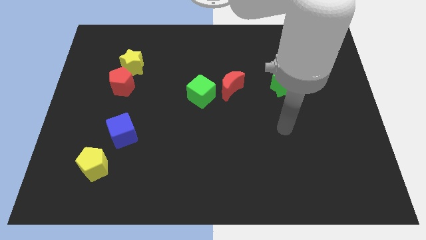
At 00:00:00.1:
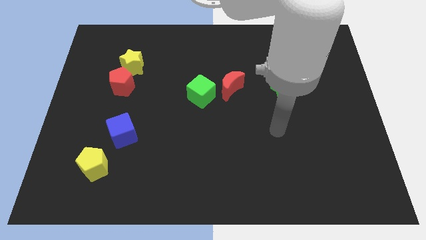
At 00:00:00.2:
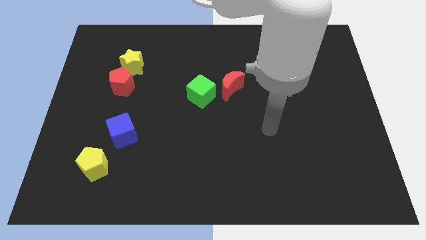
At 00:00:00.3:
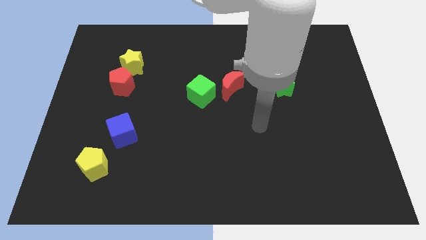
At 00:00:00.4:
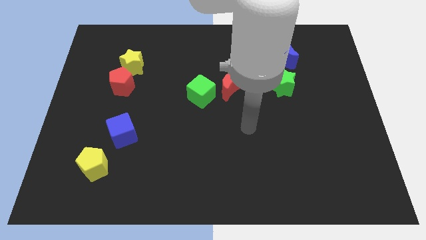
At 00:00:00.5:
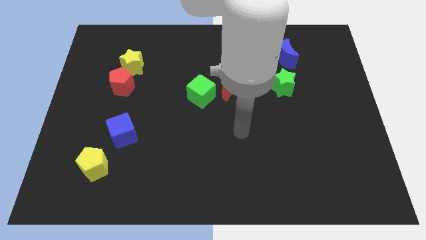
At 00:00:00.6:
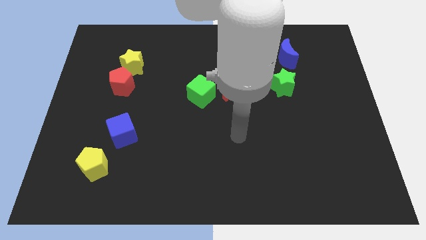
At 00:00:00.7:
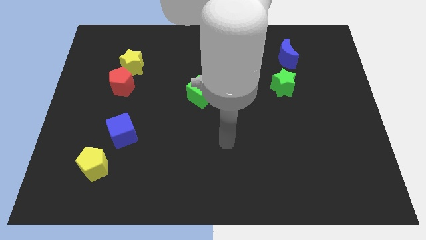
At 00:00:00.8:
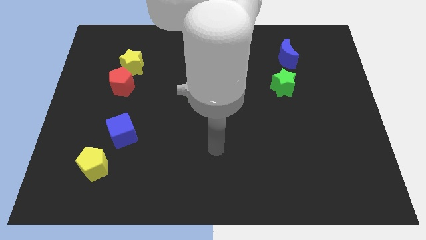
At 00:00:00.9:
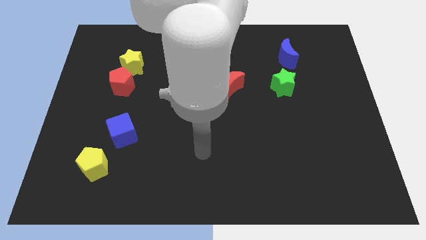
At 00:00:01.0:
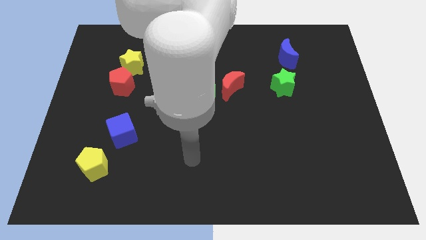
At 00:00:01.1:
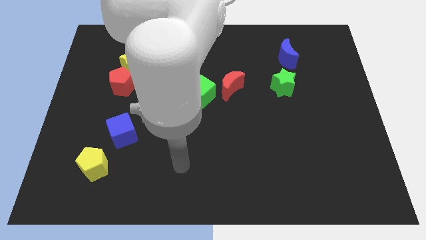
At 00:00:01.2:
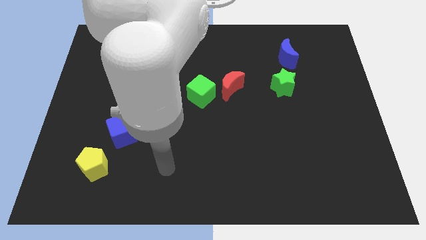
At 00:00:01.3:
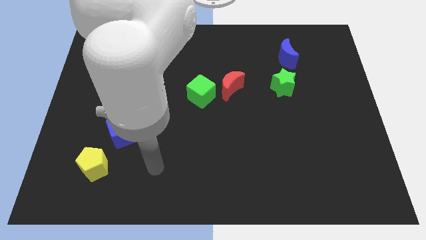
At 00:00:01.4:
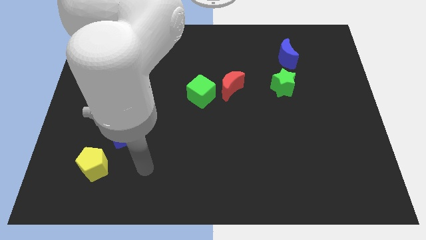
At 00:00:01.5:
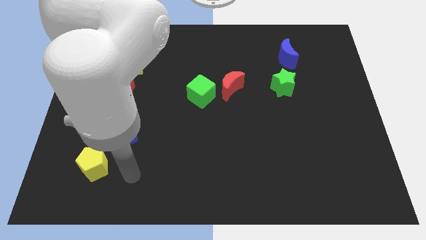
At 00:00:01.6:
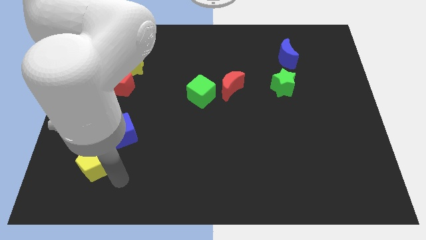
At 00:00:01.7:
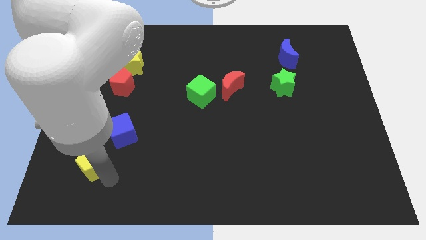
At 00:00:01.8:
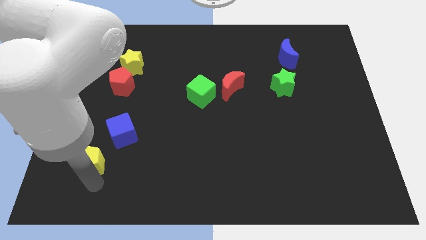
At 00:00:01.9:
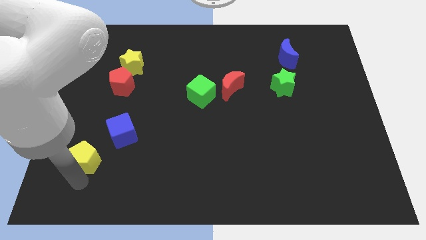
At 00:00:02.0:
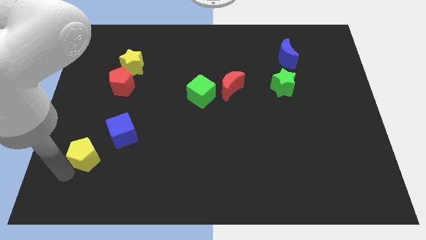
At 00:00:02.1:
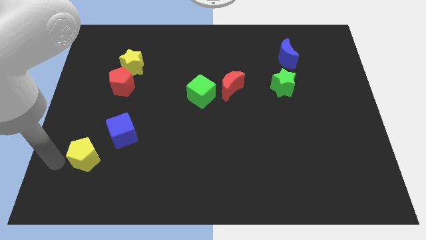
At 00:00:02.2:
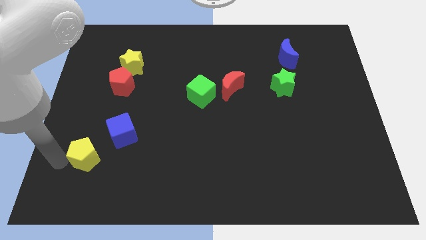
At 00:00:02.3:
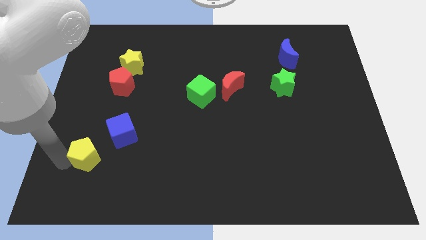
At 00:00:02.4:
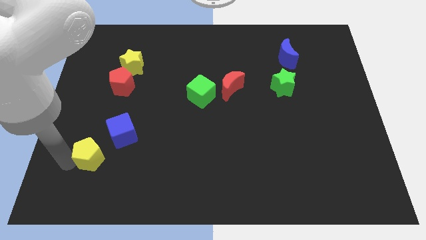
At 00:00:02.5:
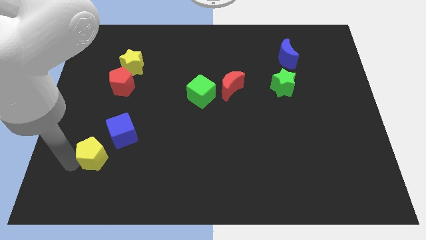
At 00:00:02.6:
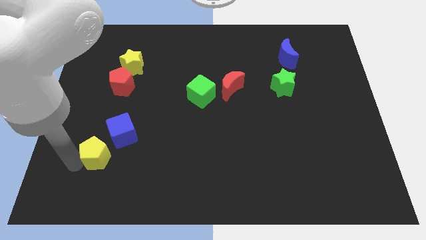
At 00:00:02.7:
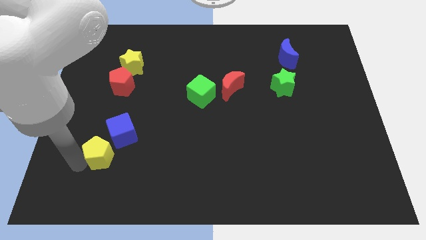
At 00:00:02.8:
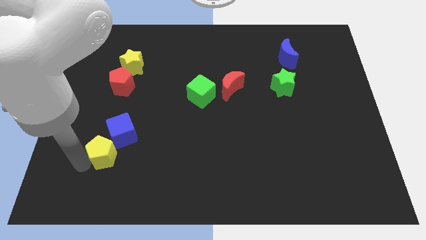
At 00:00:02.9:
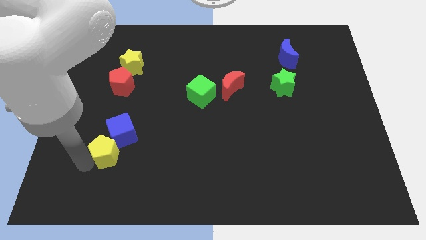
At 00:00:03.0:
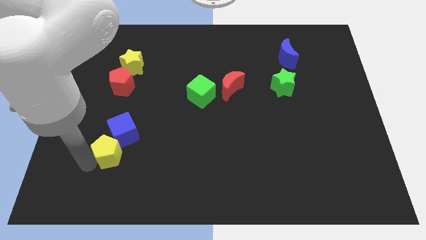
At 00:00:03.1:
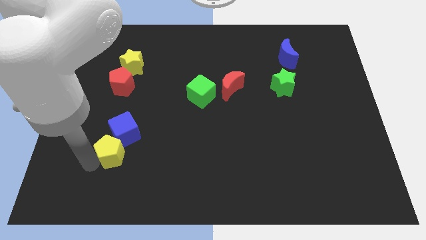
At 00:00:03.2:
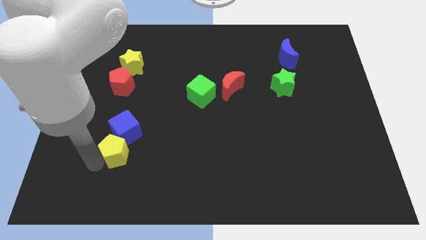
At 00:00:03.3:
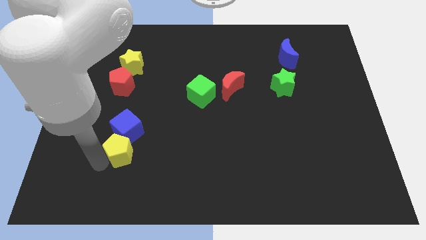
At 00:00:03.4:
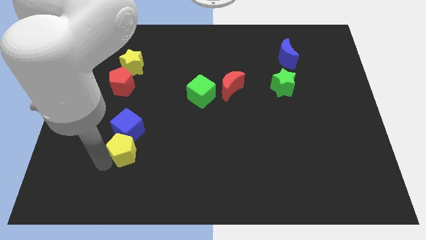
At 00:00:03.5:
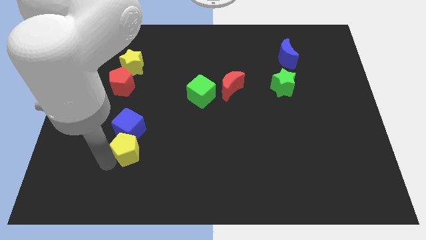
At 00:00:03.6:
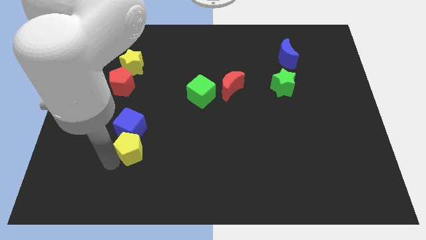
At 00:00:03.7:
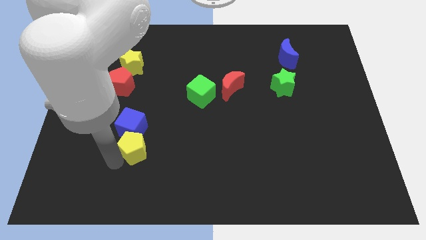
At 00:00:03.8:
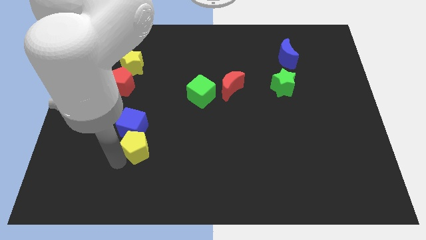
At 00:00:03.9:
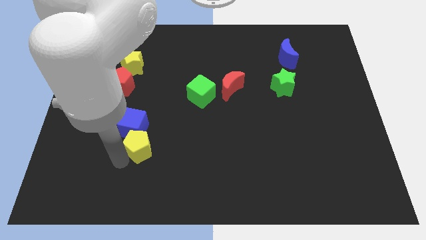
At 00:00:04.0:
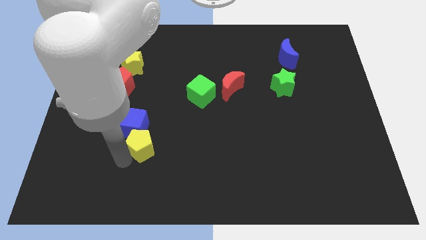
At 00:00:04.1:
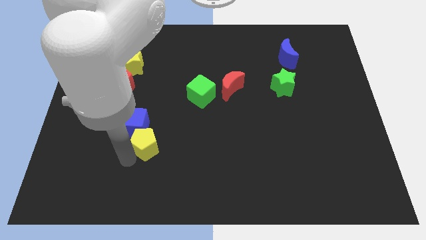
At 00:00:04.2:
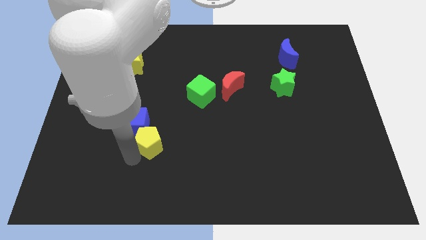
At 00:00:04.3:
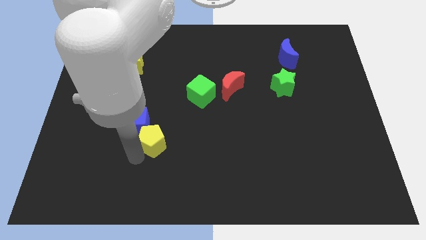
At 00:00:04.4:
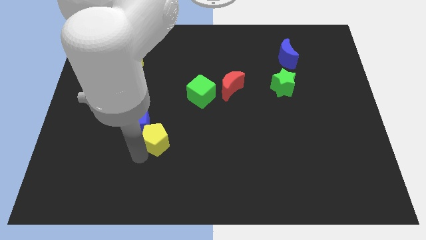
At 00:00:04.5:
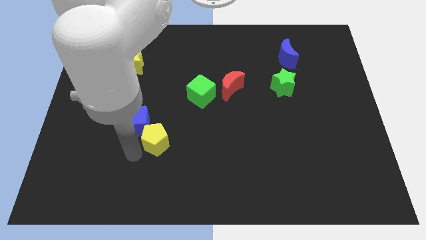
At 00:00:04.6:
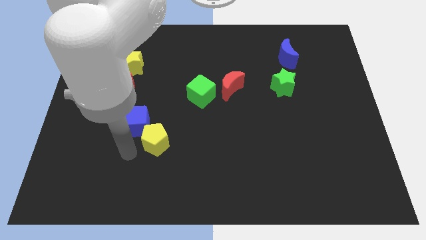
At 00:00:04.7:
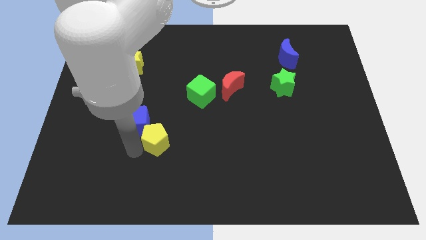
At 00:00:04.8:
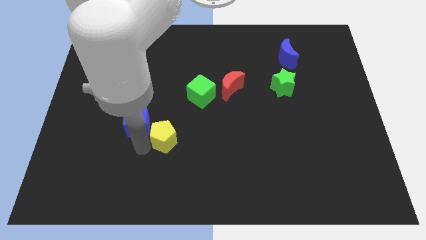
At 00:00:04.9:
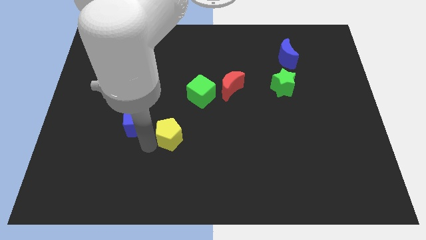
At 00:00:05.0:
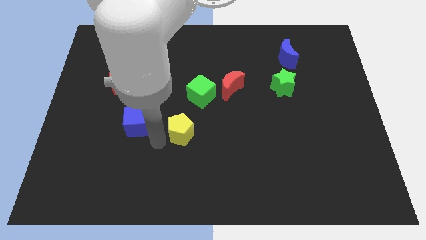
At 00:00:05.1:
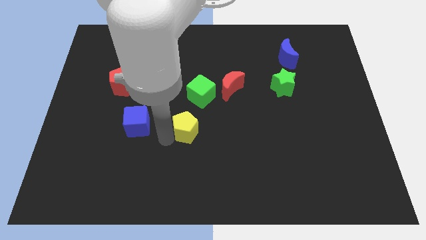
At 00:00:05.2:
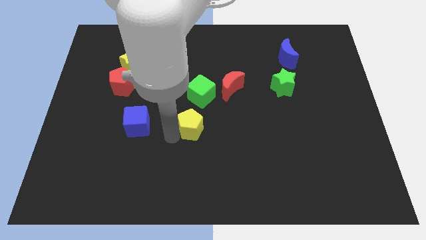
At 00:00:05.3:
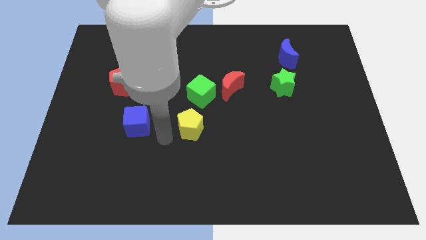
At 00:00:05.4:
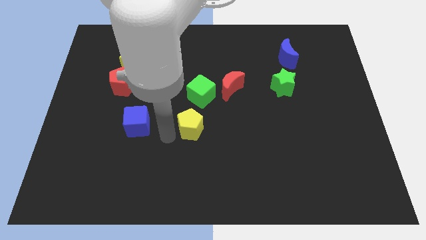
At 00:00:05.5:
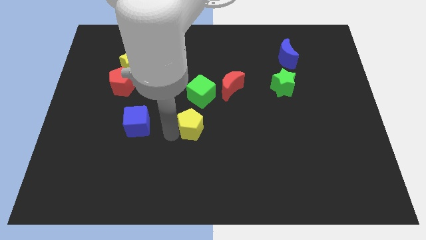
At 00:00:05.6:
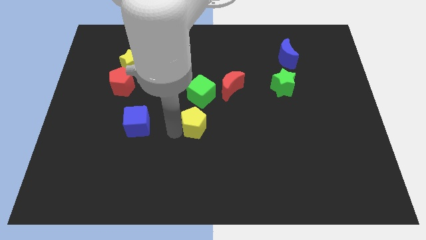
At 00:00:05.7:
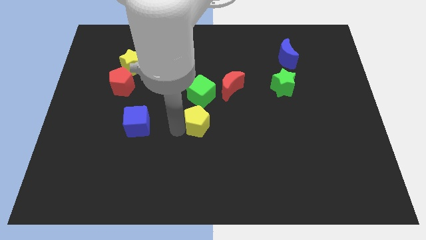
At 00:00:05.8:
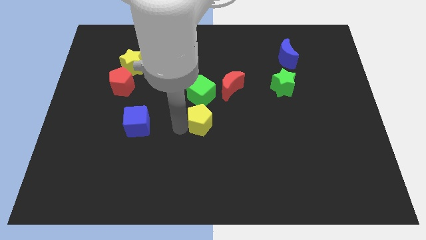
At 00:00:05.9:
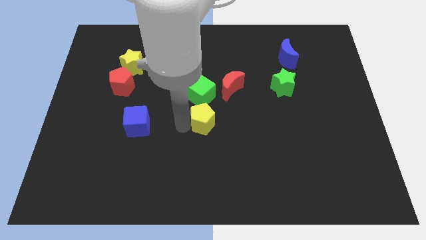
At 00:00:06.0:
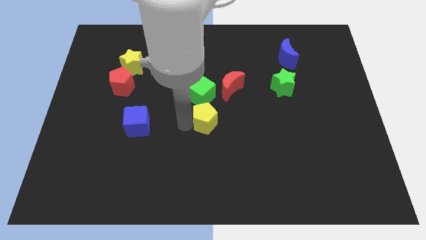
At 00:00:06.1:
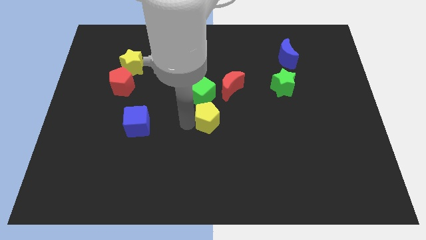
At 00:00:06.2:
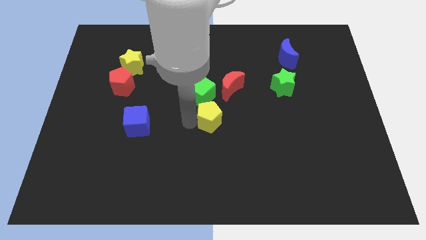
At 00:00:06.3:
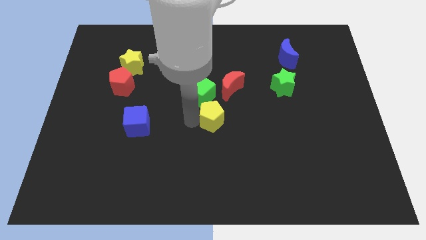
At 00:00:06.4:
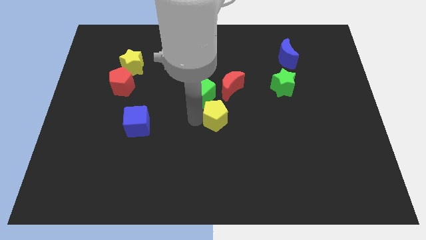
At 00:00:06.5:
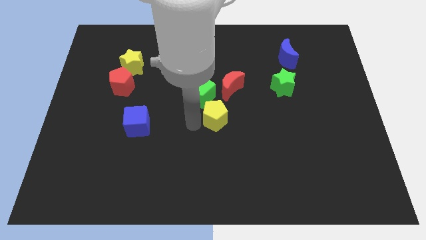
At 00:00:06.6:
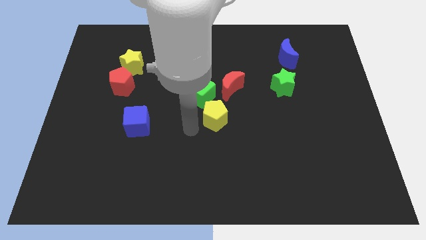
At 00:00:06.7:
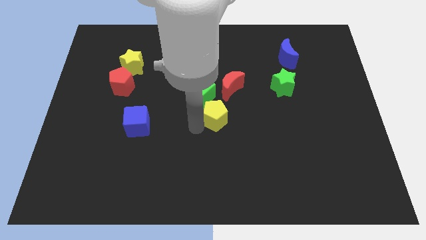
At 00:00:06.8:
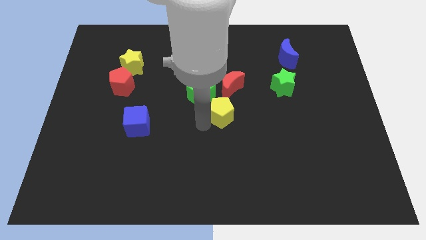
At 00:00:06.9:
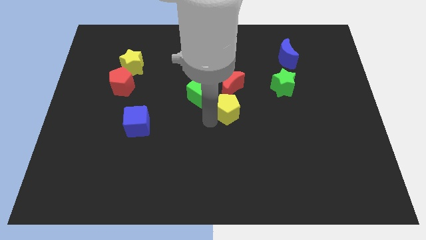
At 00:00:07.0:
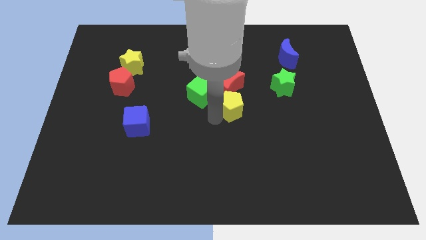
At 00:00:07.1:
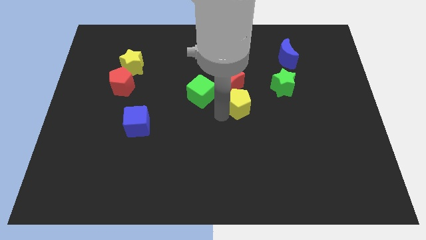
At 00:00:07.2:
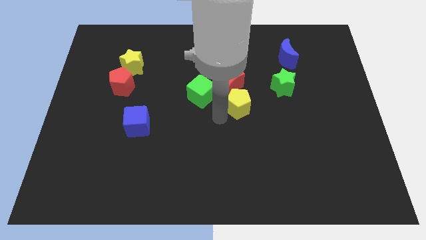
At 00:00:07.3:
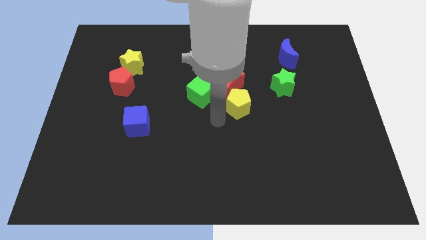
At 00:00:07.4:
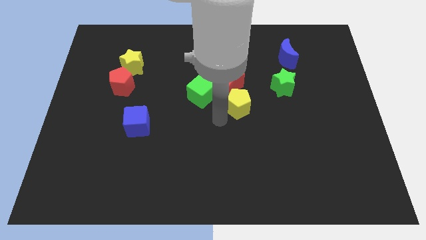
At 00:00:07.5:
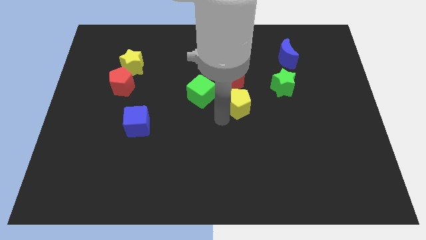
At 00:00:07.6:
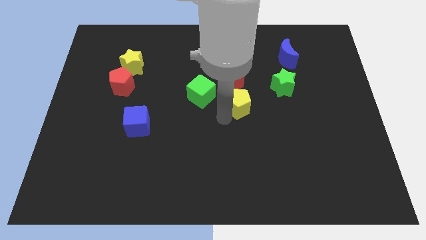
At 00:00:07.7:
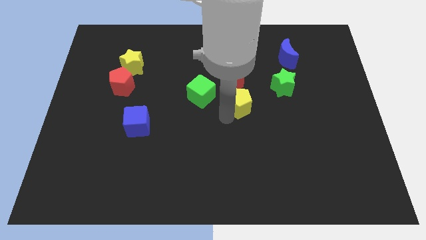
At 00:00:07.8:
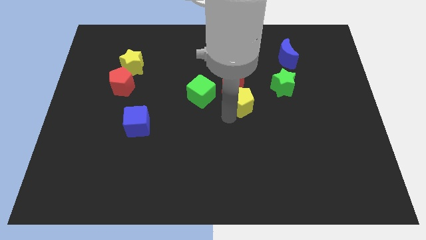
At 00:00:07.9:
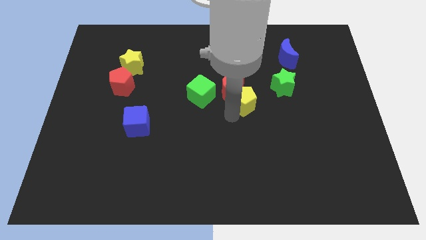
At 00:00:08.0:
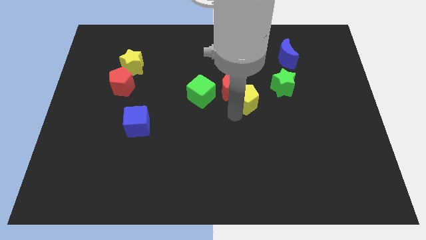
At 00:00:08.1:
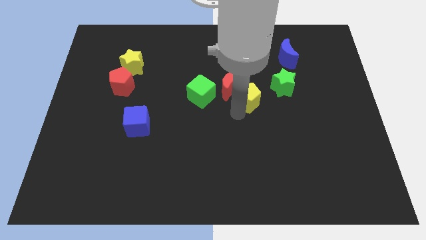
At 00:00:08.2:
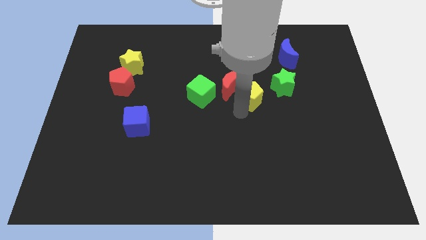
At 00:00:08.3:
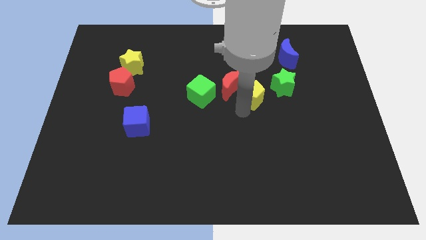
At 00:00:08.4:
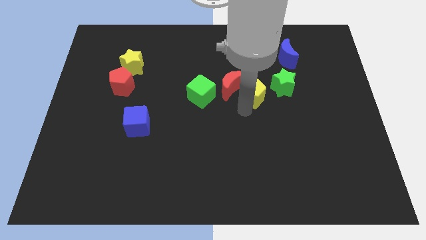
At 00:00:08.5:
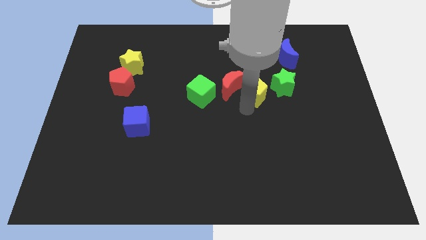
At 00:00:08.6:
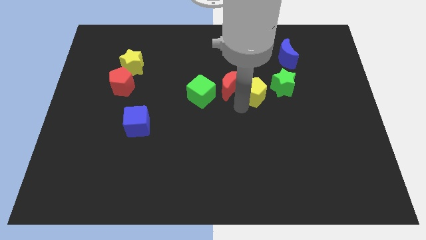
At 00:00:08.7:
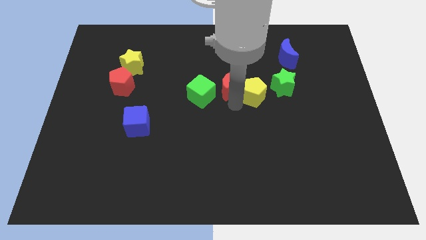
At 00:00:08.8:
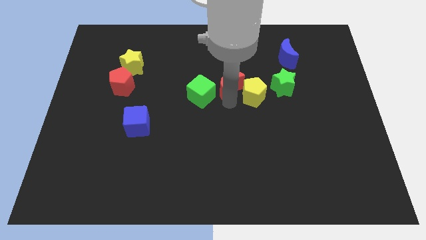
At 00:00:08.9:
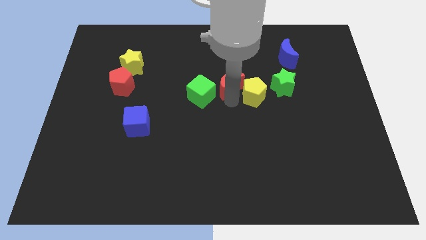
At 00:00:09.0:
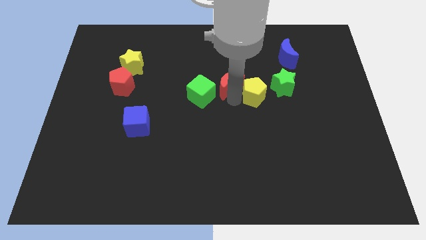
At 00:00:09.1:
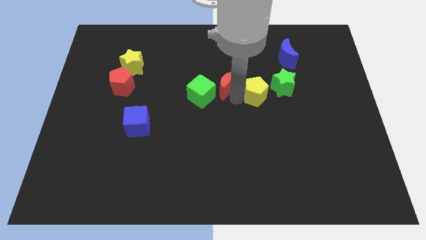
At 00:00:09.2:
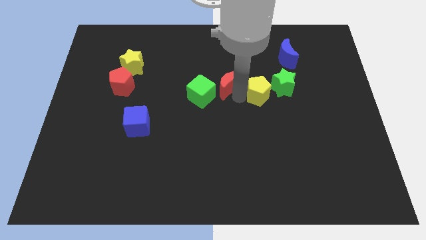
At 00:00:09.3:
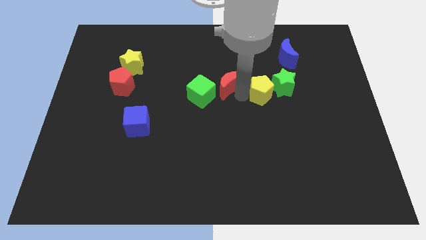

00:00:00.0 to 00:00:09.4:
put the yellow pentagon towards the green star
